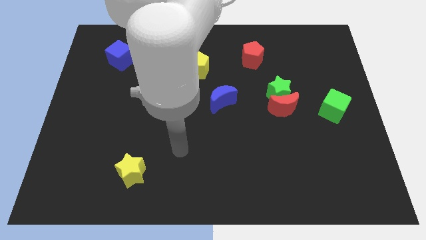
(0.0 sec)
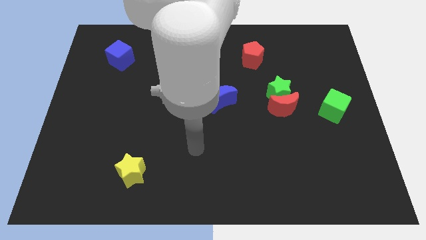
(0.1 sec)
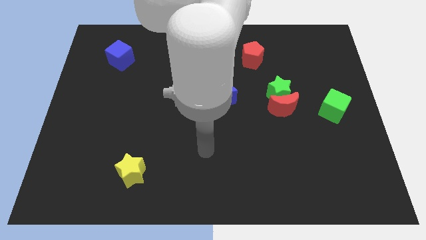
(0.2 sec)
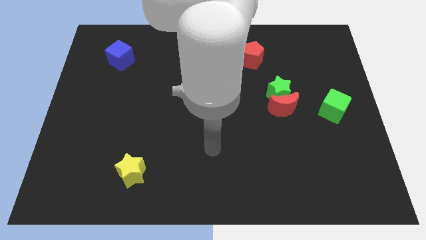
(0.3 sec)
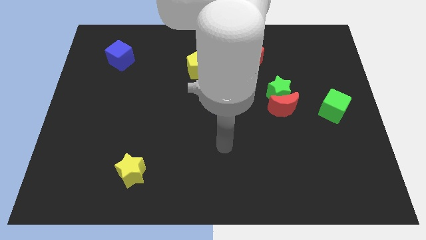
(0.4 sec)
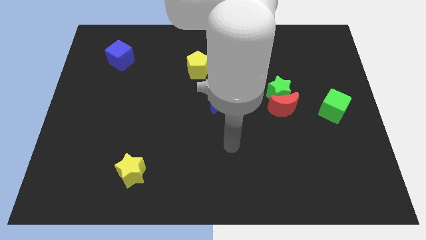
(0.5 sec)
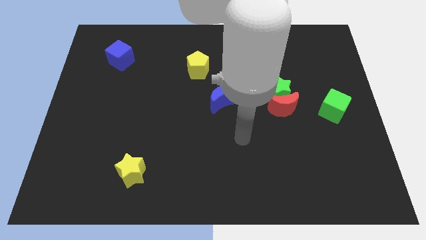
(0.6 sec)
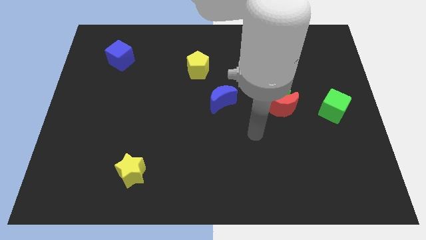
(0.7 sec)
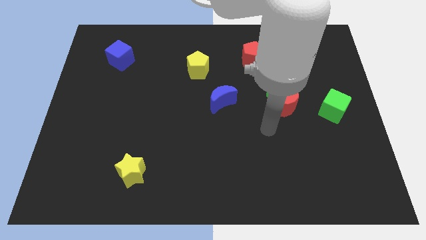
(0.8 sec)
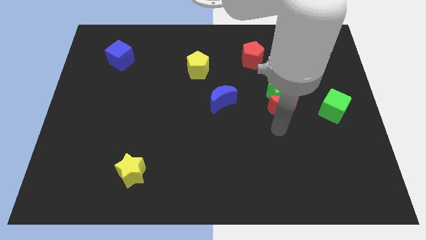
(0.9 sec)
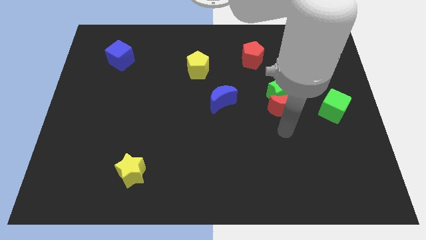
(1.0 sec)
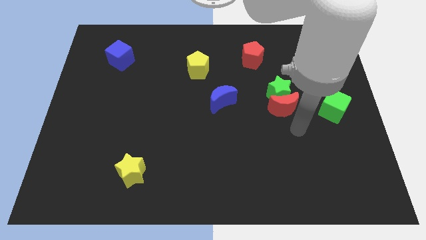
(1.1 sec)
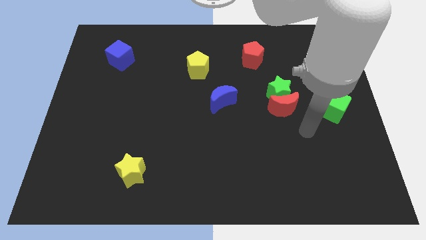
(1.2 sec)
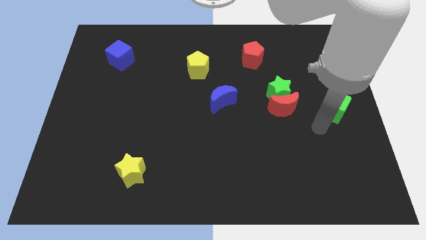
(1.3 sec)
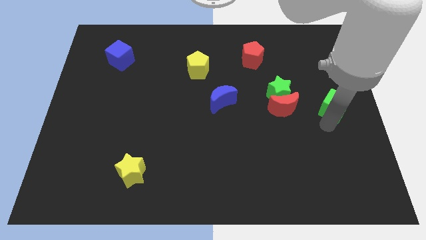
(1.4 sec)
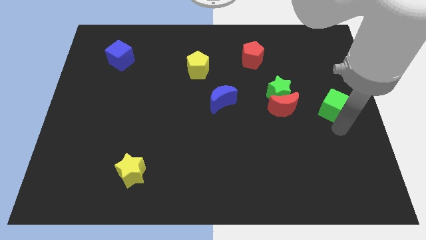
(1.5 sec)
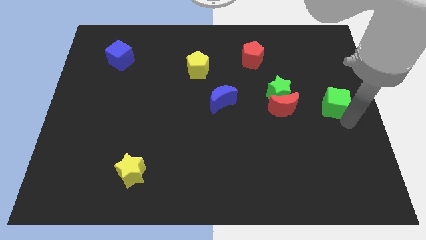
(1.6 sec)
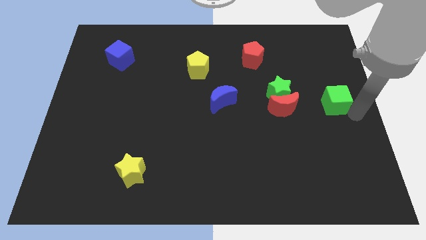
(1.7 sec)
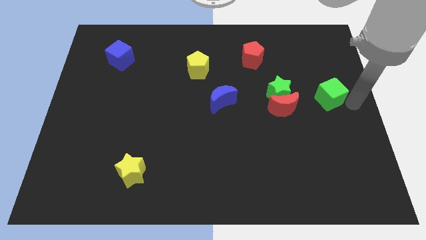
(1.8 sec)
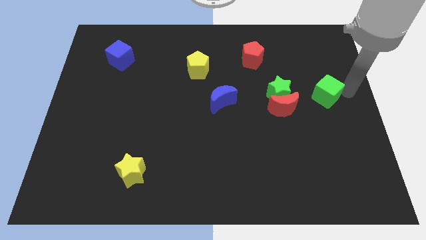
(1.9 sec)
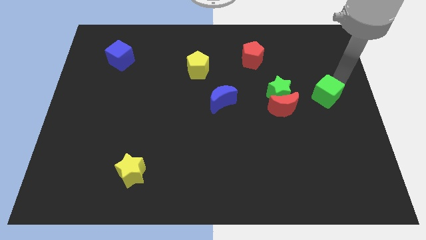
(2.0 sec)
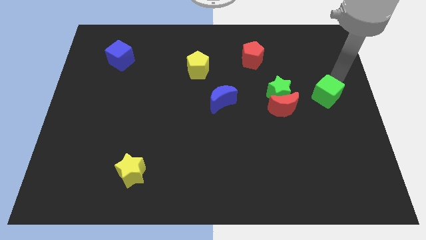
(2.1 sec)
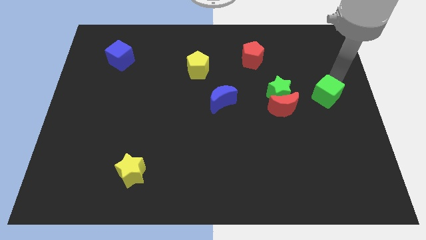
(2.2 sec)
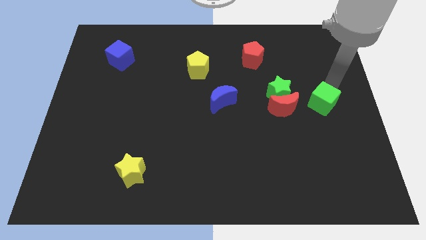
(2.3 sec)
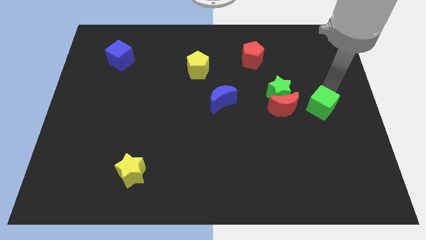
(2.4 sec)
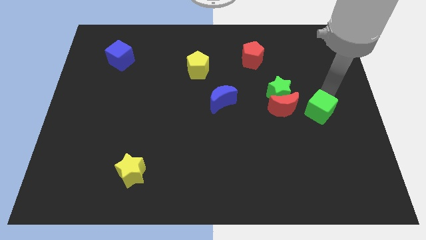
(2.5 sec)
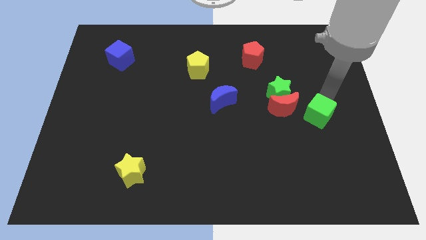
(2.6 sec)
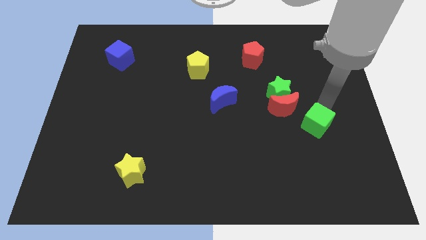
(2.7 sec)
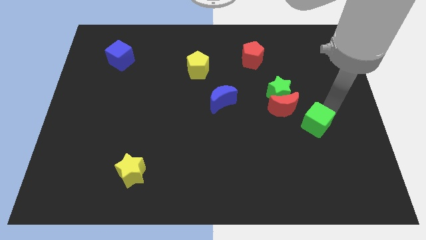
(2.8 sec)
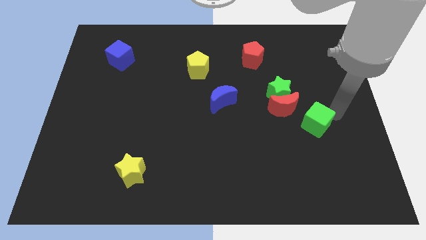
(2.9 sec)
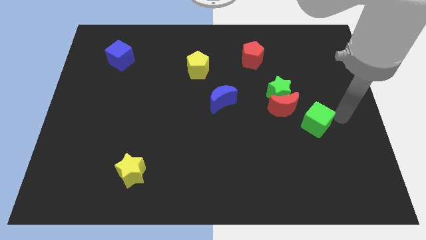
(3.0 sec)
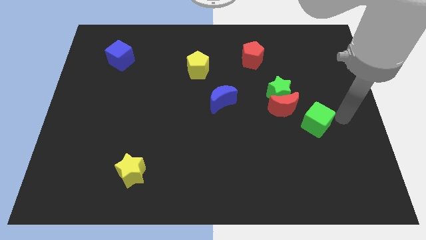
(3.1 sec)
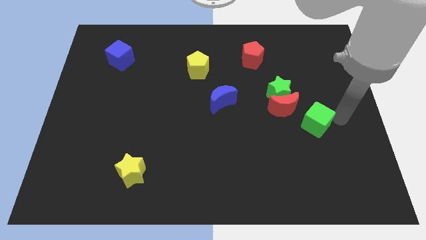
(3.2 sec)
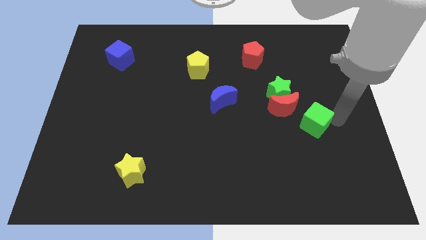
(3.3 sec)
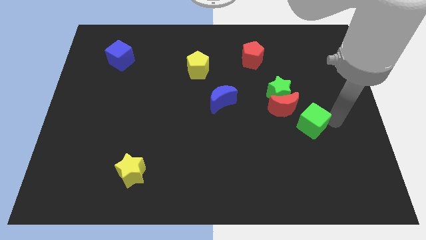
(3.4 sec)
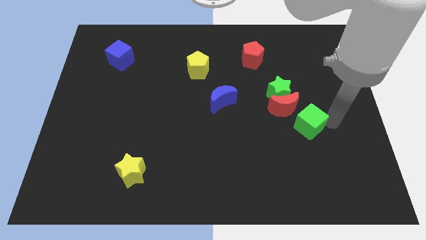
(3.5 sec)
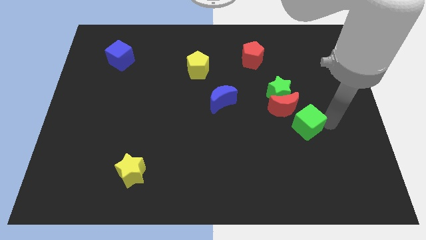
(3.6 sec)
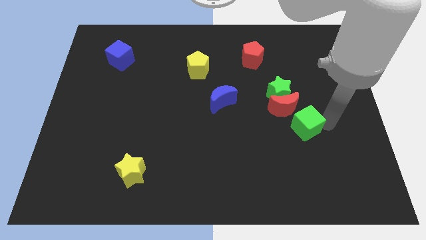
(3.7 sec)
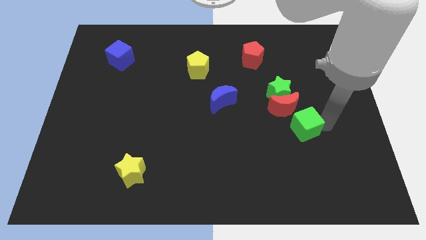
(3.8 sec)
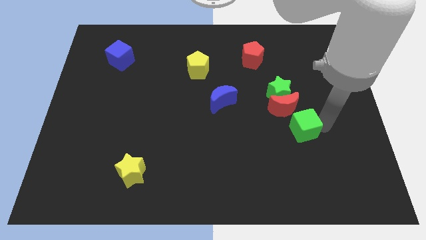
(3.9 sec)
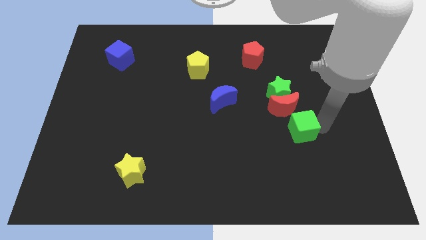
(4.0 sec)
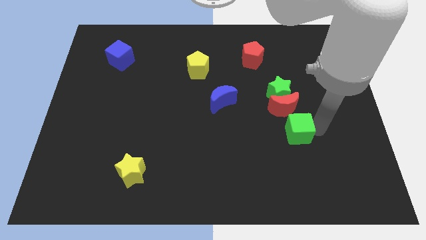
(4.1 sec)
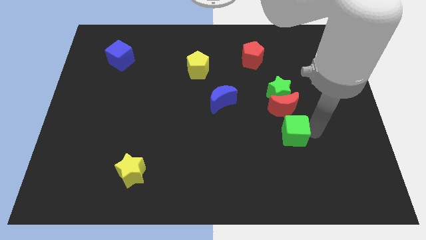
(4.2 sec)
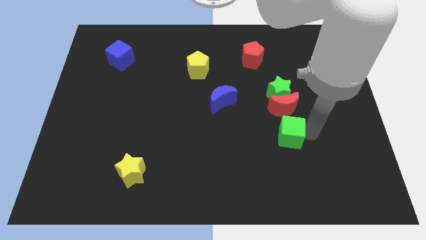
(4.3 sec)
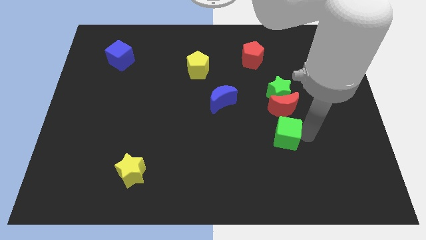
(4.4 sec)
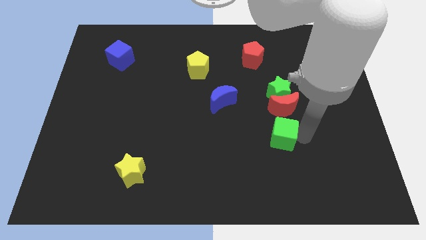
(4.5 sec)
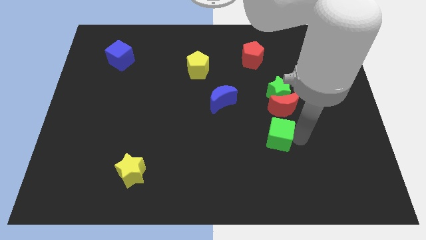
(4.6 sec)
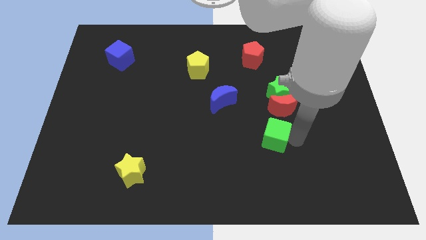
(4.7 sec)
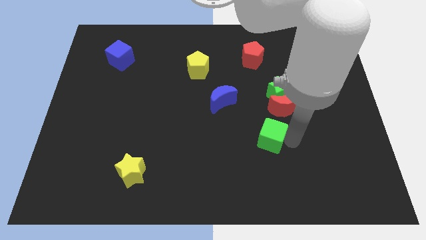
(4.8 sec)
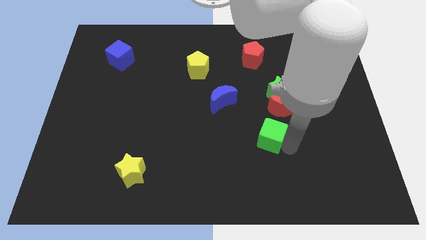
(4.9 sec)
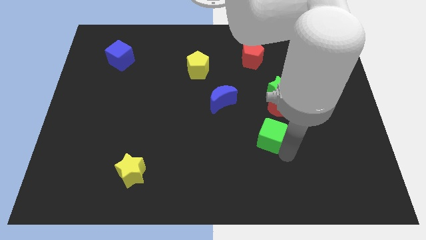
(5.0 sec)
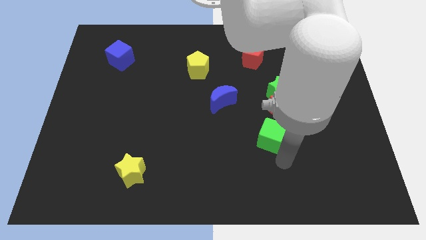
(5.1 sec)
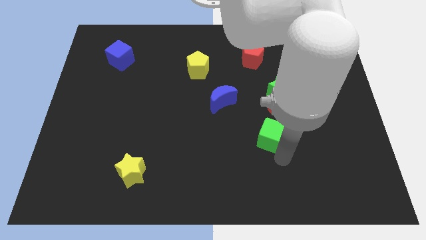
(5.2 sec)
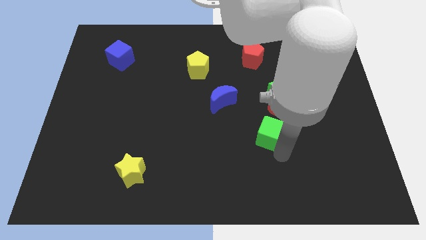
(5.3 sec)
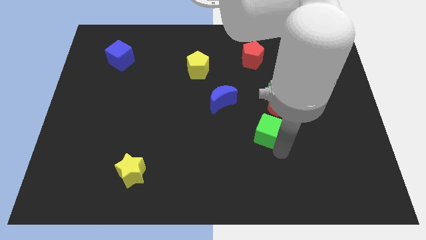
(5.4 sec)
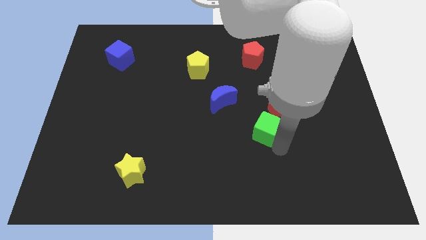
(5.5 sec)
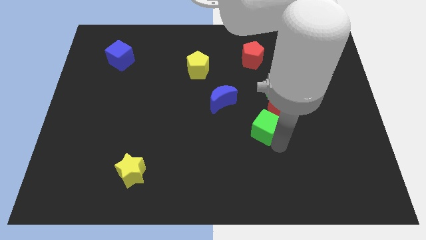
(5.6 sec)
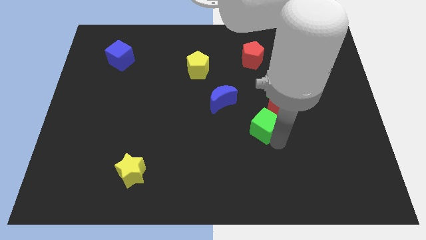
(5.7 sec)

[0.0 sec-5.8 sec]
put the green cube diagonally down and to the left of the green star

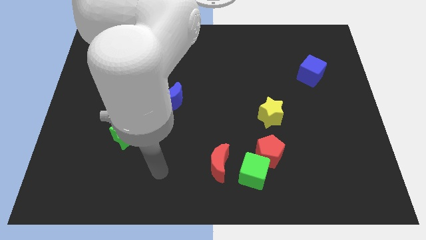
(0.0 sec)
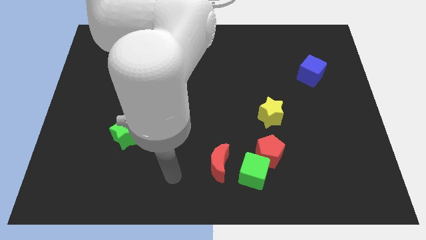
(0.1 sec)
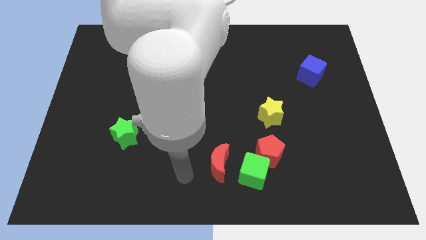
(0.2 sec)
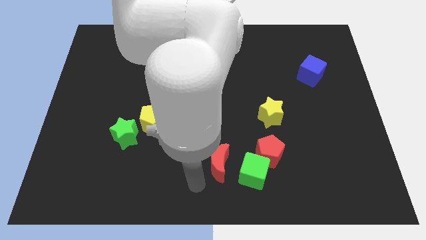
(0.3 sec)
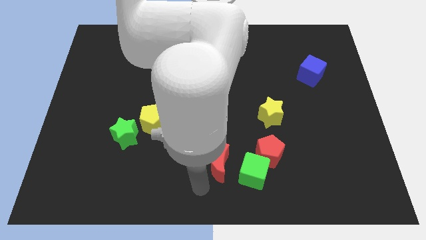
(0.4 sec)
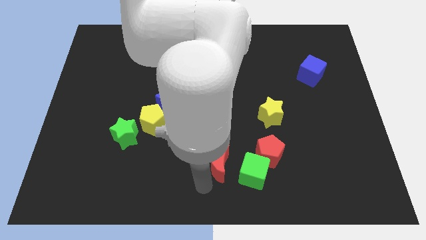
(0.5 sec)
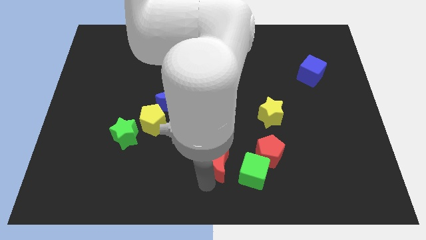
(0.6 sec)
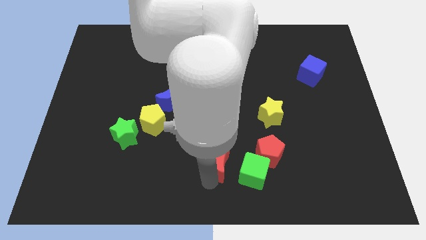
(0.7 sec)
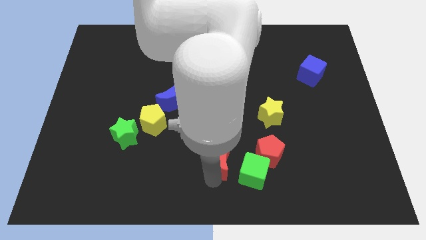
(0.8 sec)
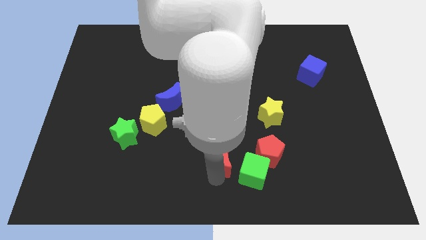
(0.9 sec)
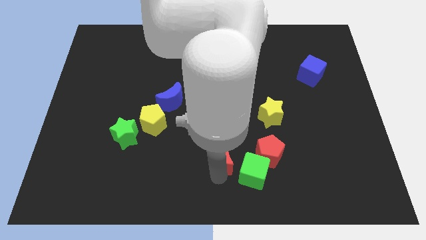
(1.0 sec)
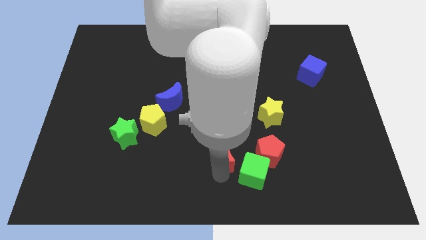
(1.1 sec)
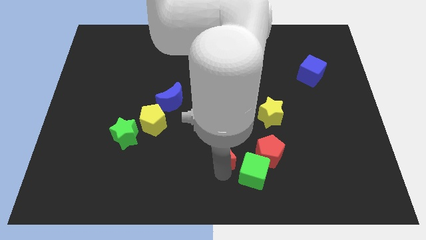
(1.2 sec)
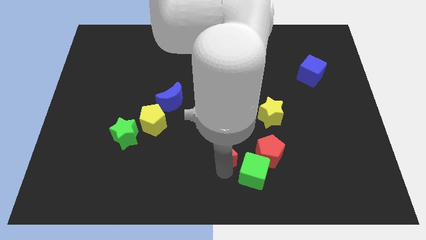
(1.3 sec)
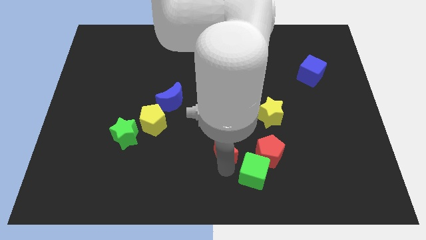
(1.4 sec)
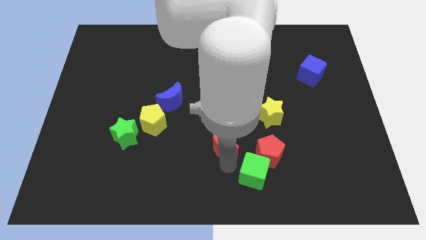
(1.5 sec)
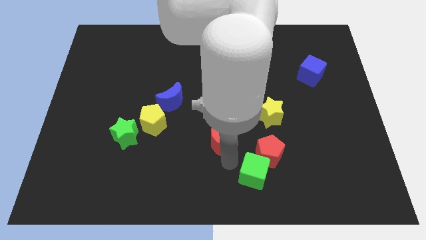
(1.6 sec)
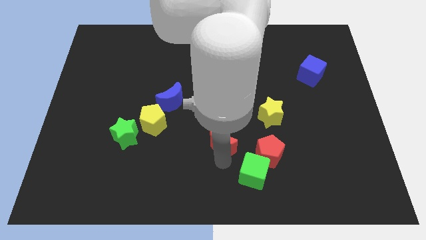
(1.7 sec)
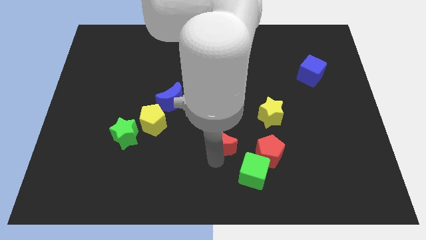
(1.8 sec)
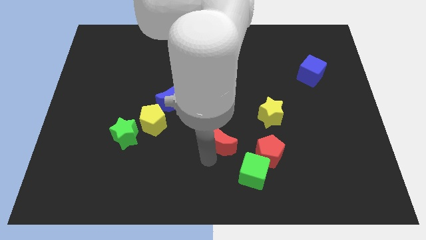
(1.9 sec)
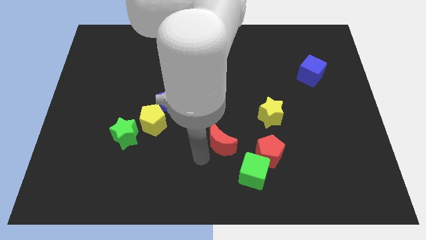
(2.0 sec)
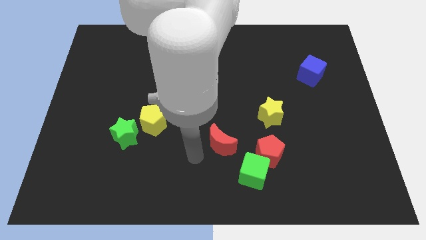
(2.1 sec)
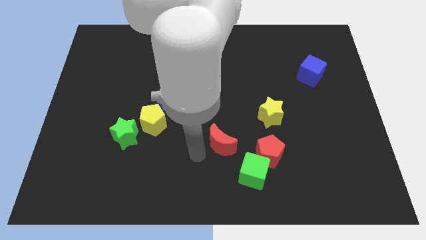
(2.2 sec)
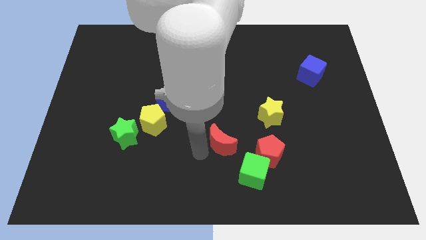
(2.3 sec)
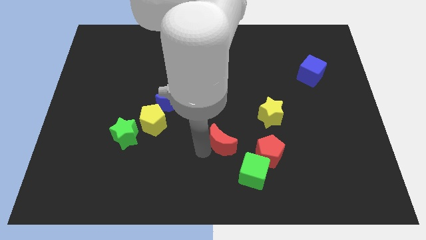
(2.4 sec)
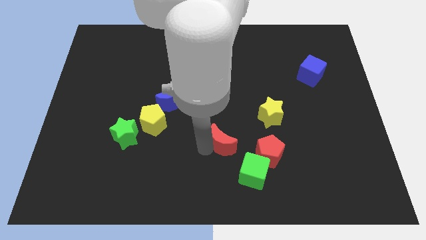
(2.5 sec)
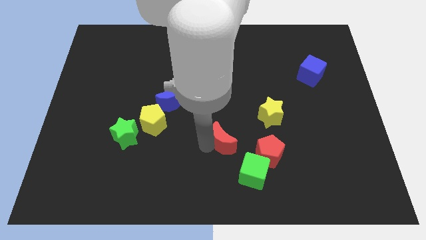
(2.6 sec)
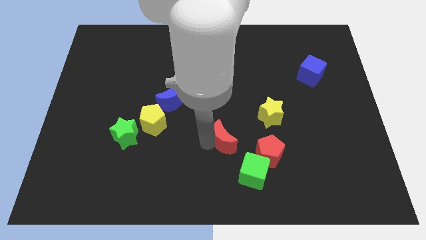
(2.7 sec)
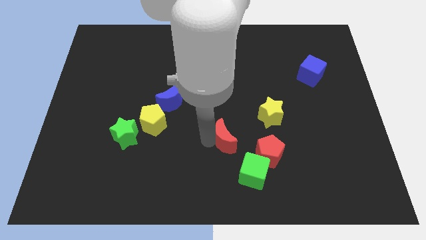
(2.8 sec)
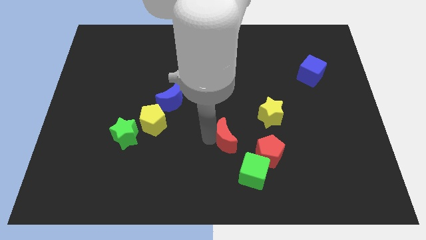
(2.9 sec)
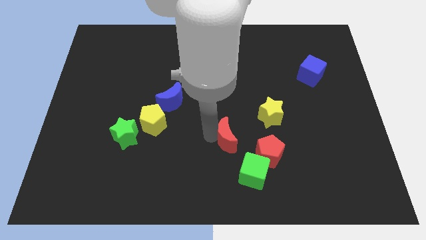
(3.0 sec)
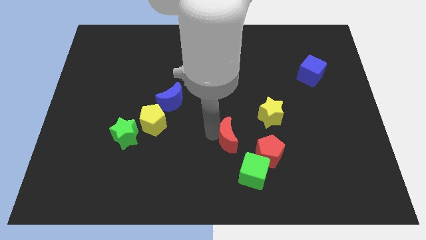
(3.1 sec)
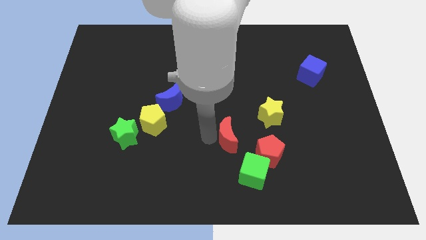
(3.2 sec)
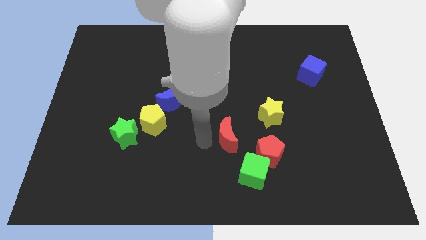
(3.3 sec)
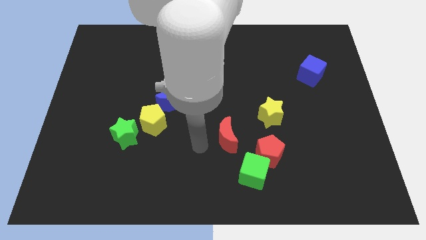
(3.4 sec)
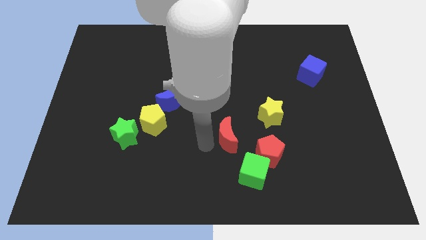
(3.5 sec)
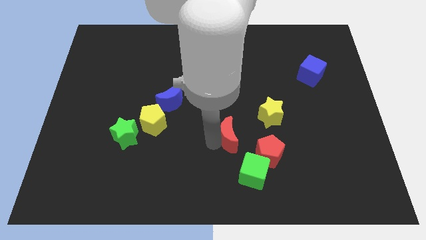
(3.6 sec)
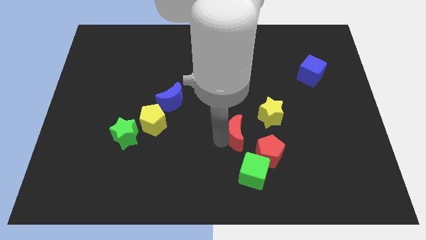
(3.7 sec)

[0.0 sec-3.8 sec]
push the red moon to the top of the green cube
